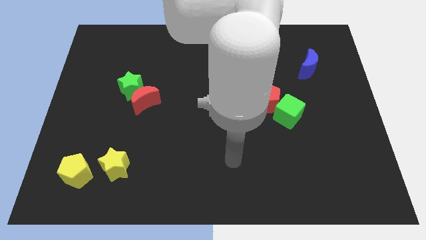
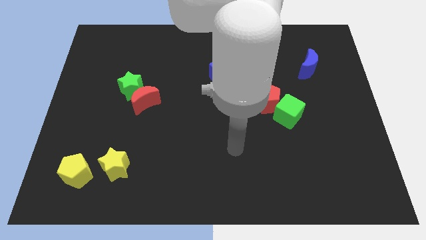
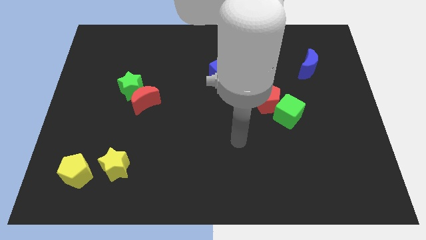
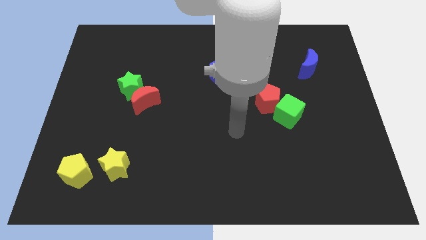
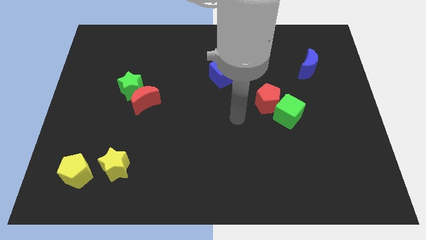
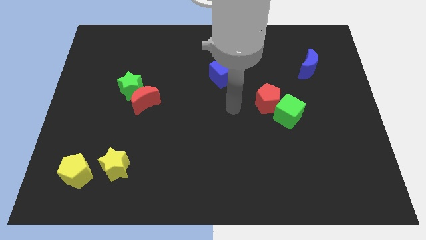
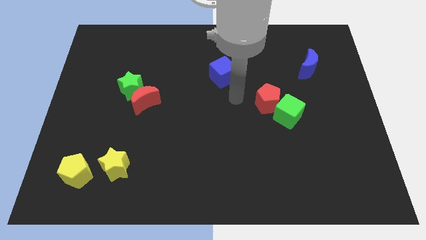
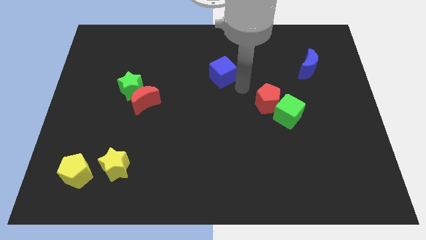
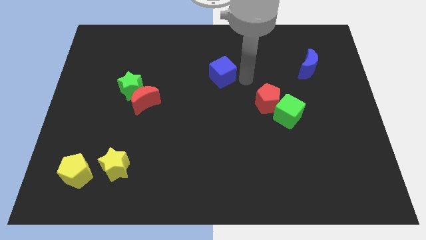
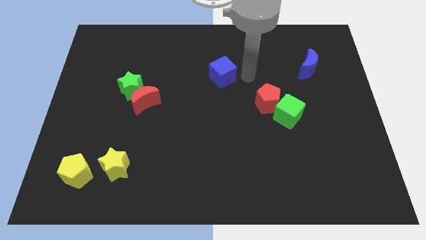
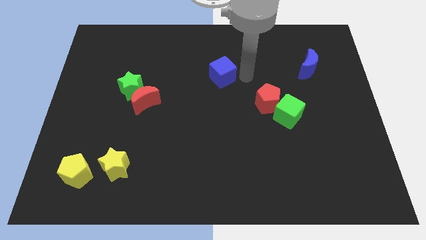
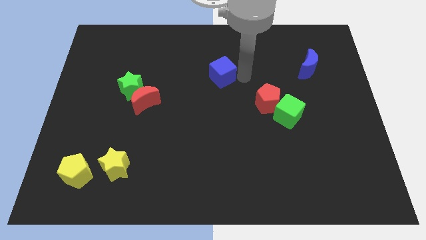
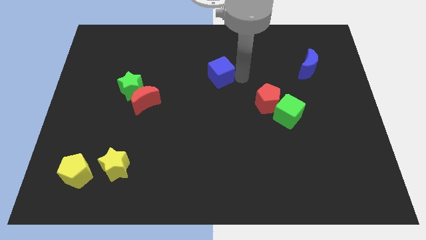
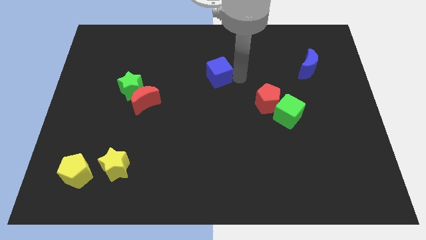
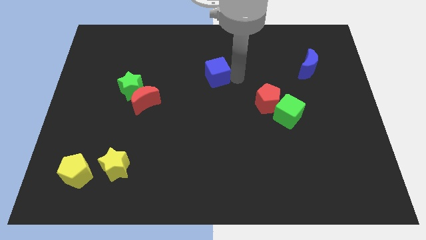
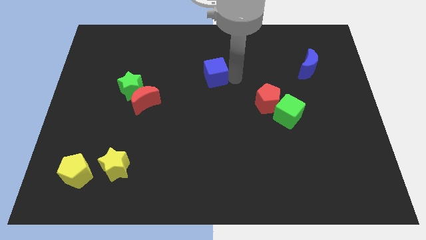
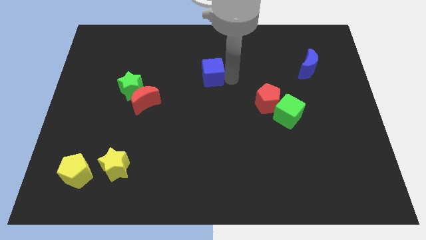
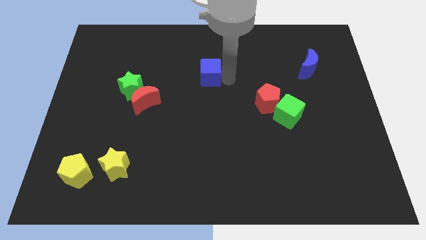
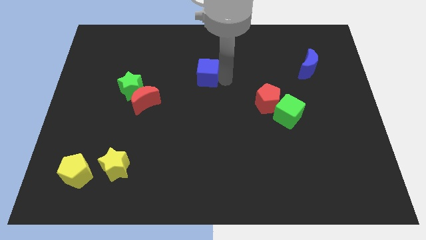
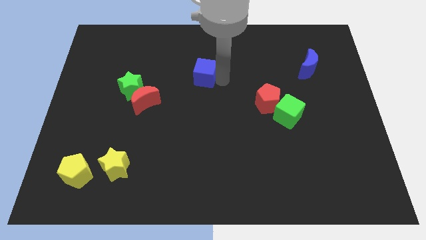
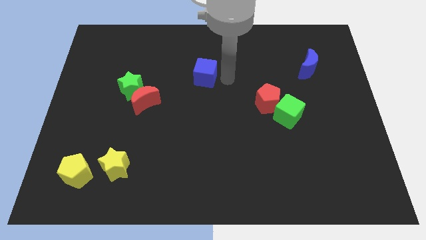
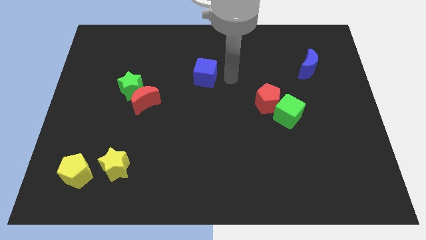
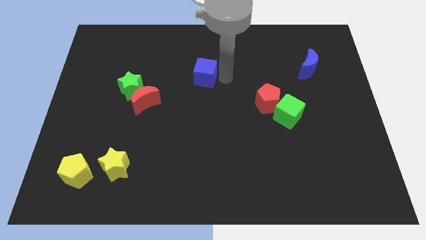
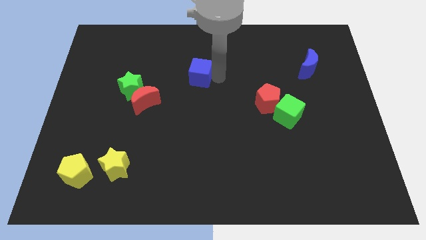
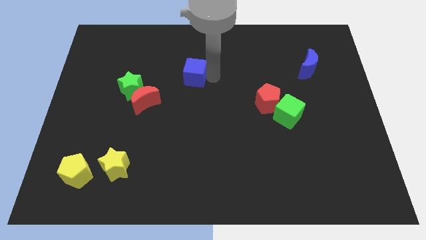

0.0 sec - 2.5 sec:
slide the blue cube a bit to the left

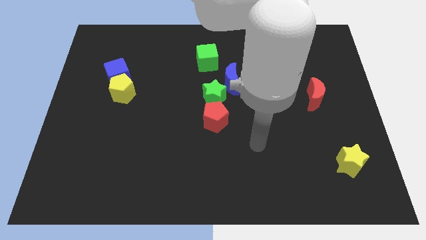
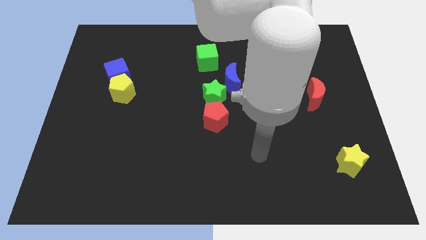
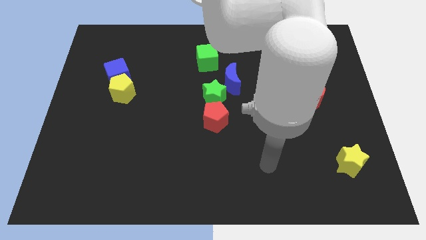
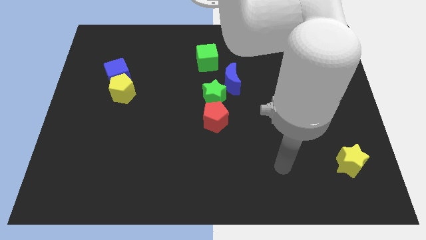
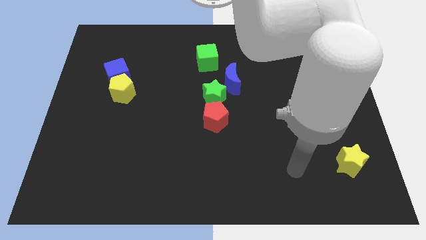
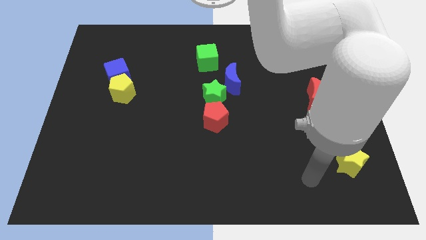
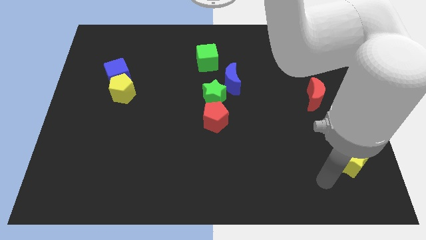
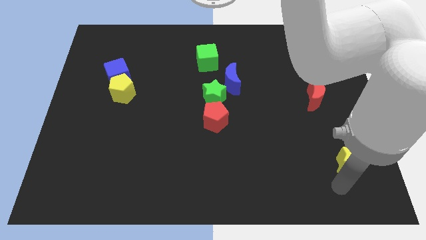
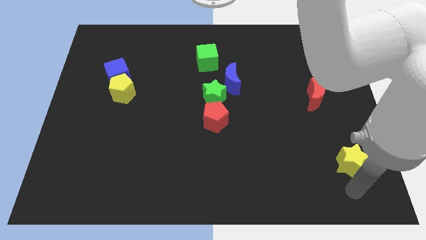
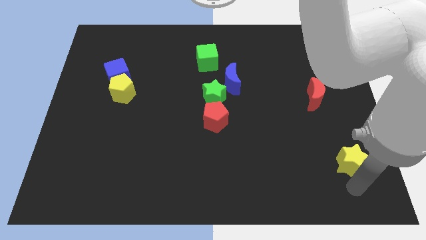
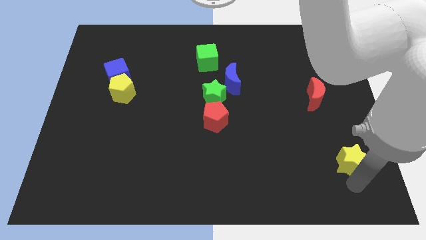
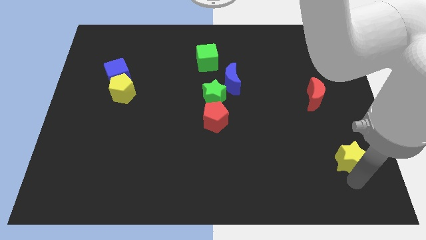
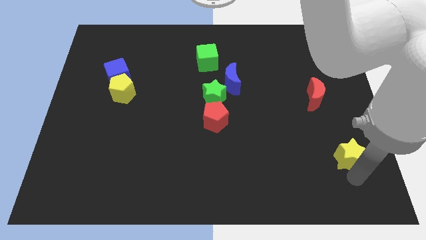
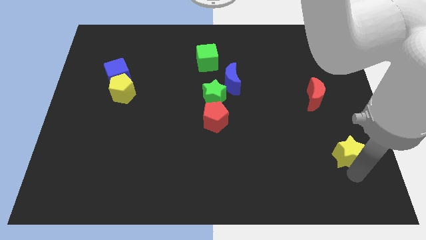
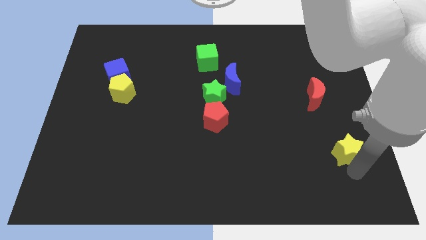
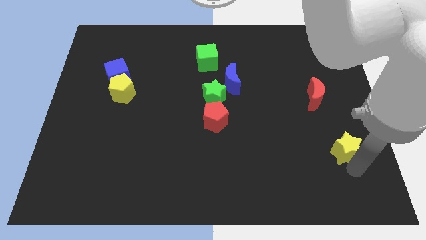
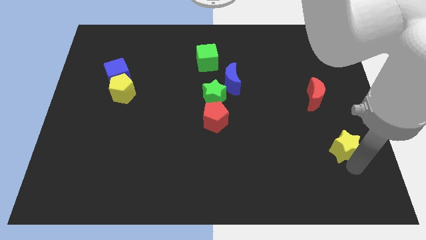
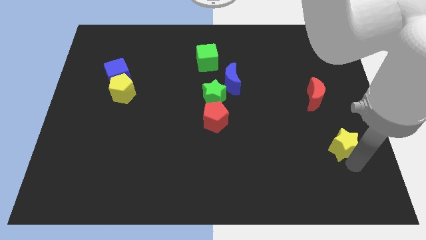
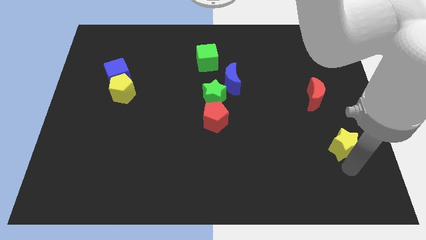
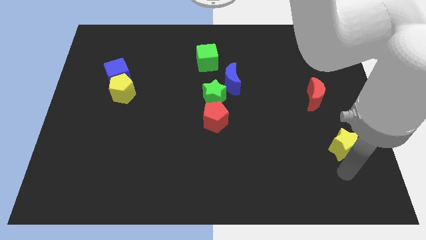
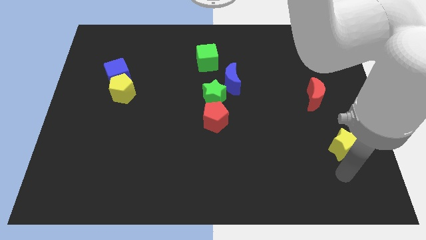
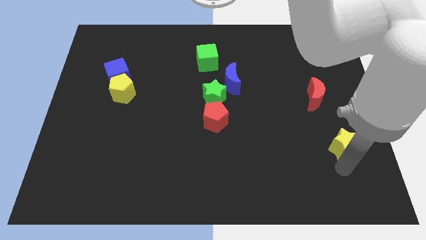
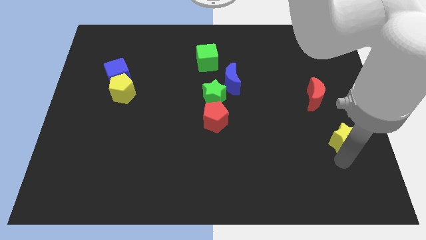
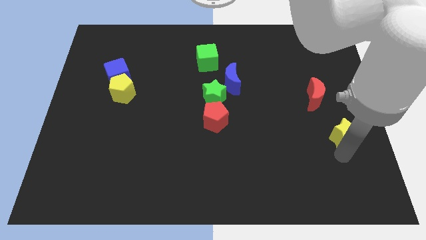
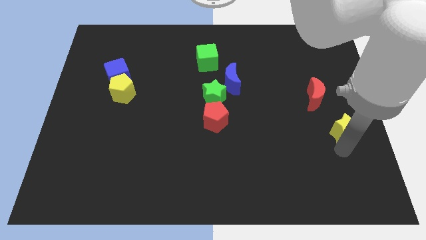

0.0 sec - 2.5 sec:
move the yellow star a little up

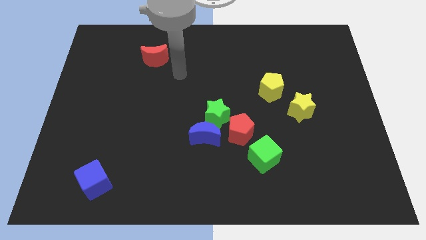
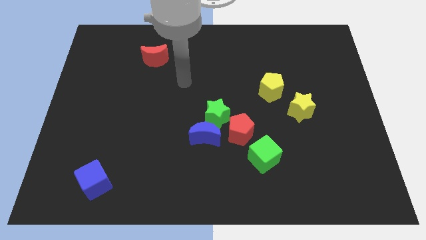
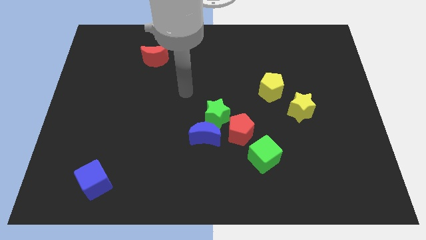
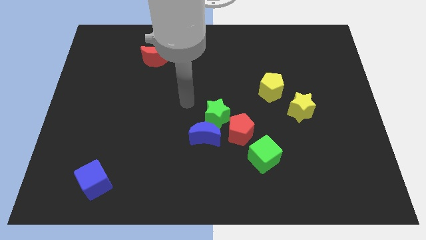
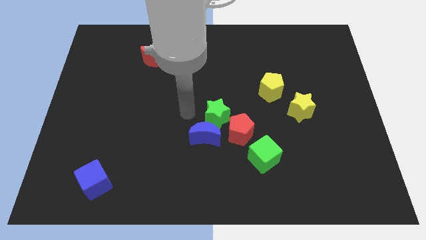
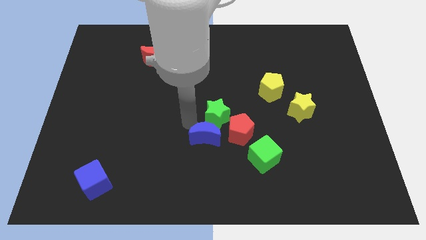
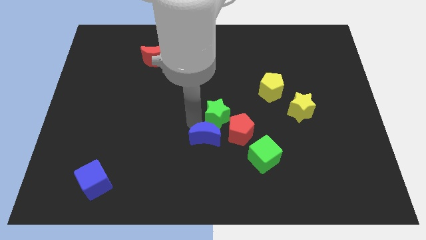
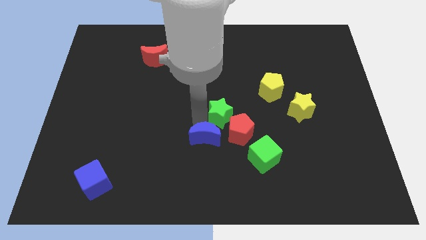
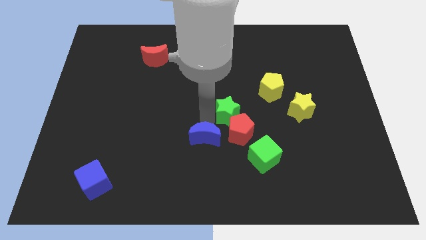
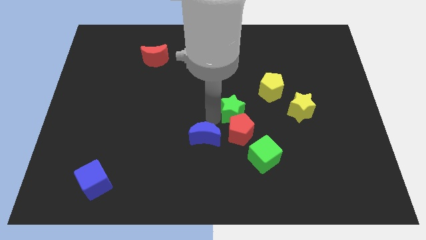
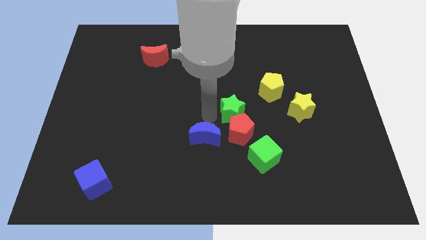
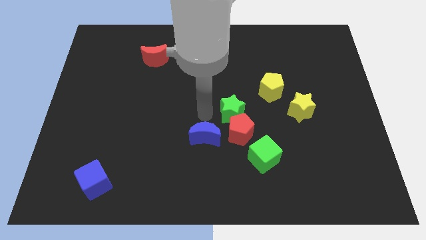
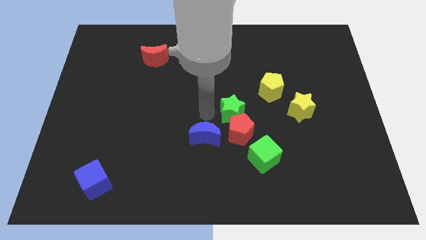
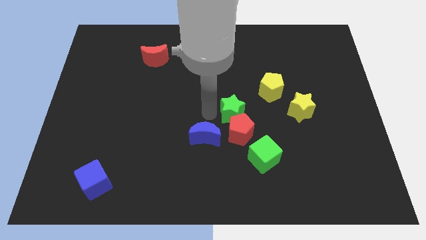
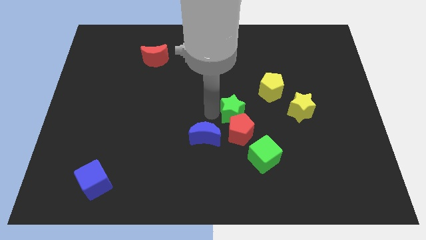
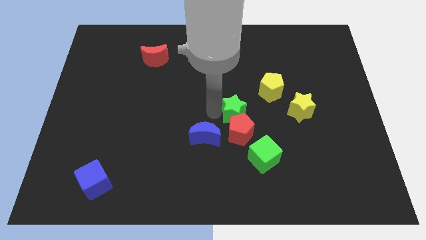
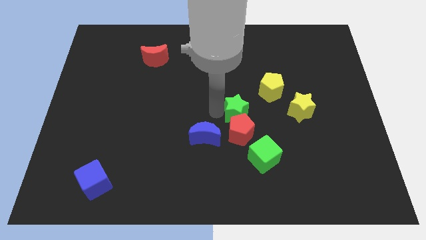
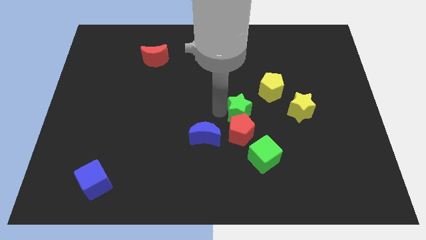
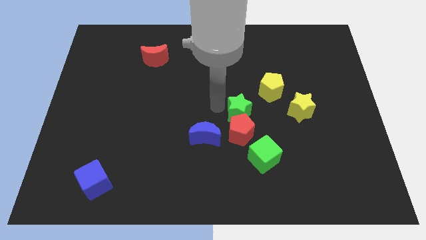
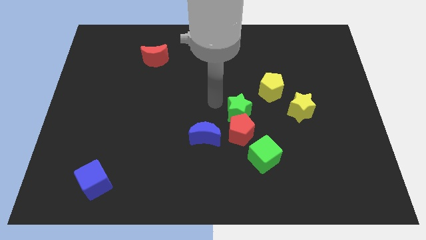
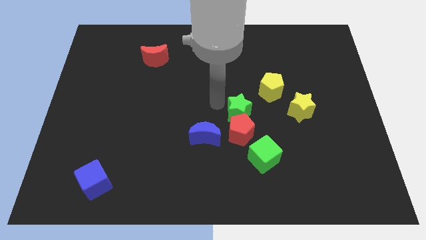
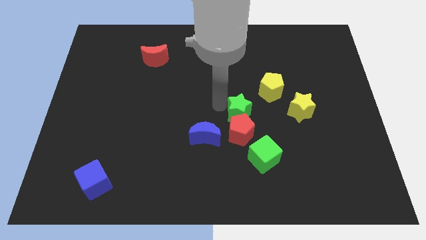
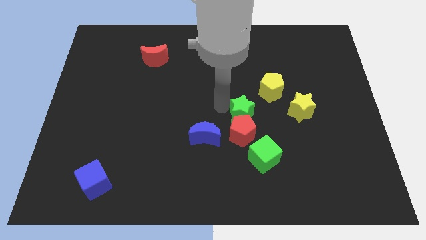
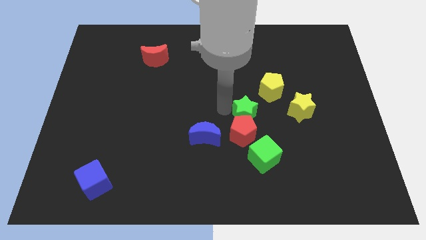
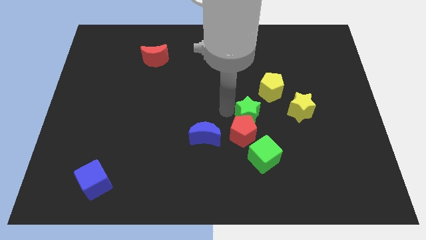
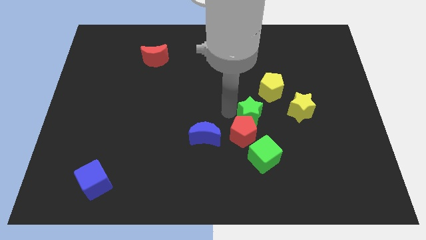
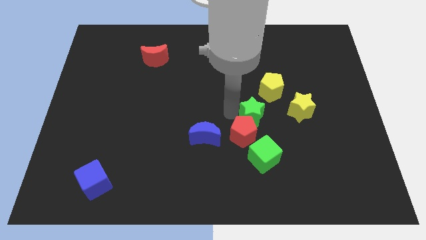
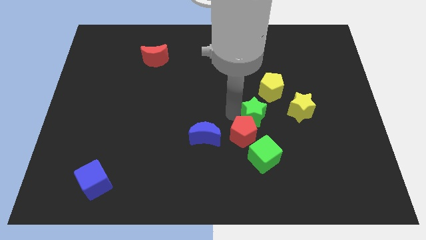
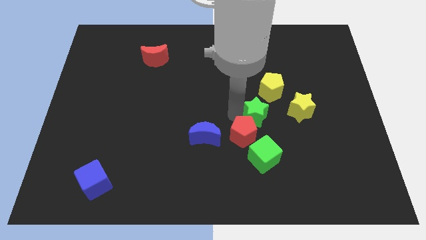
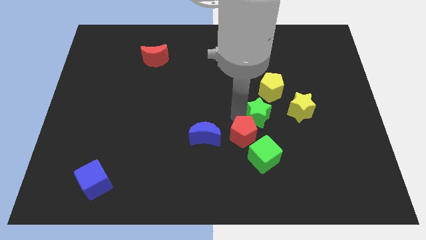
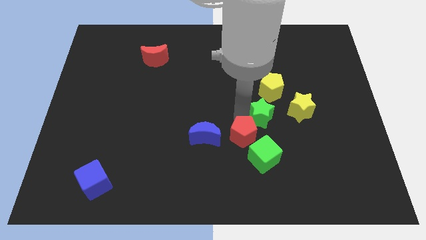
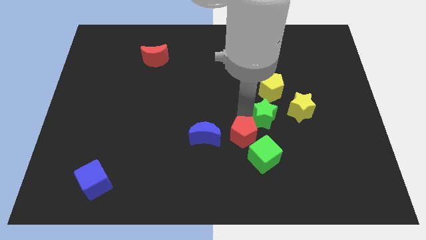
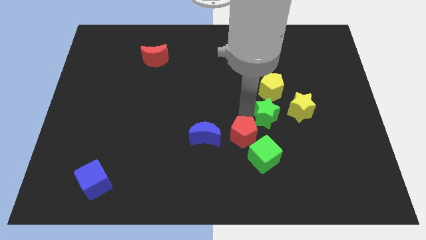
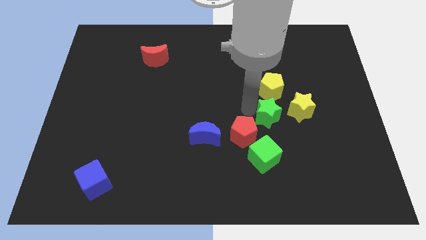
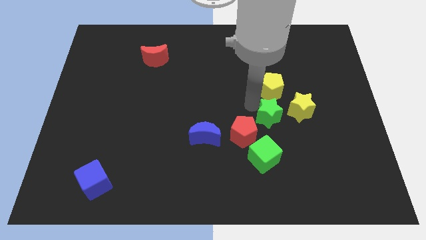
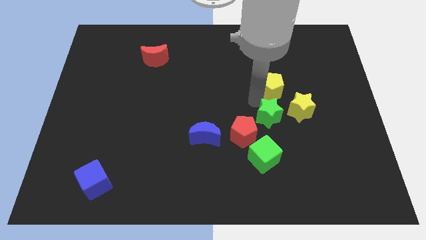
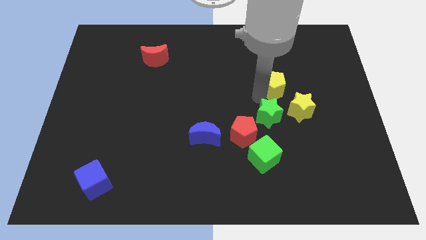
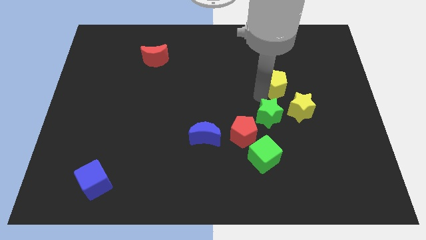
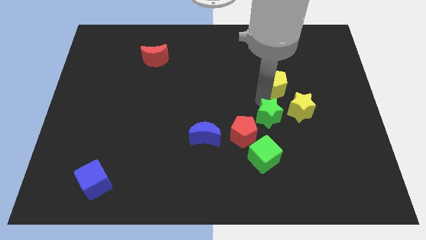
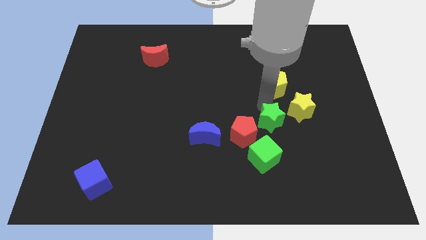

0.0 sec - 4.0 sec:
slide the green star down and then to the right a bit
